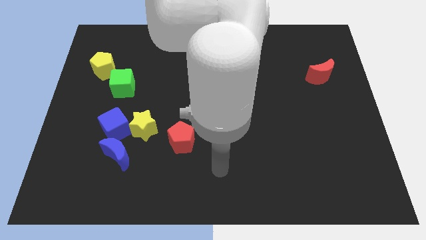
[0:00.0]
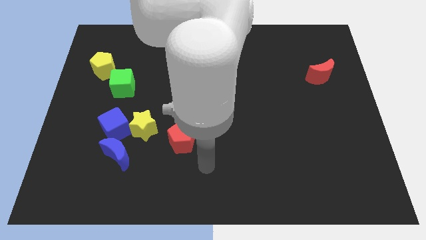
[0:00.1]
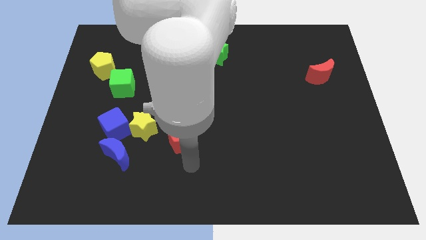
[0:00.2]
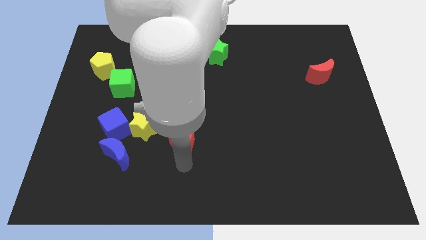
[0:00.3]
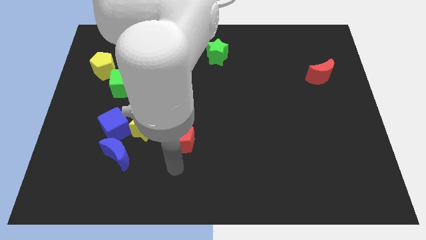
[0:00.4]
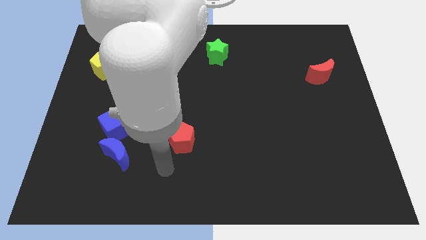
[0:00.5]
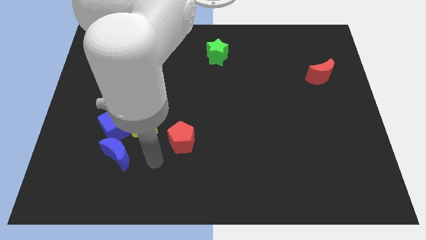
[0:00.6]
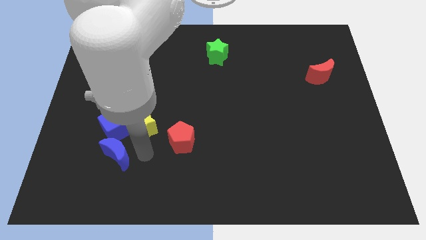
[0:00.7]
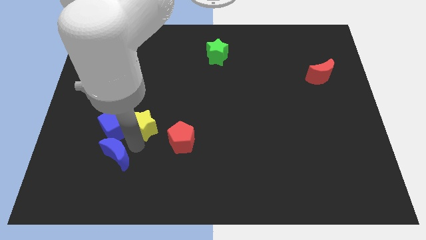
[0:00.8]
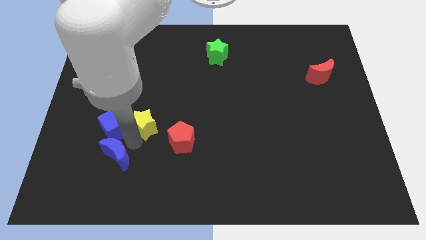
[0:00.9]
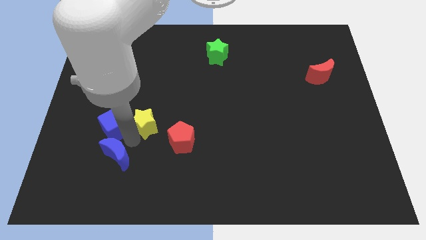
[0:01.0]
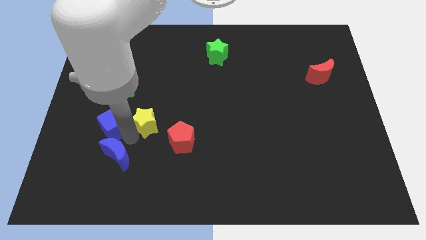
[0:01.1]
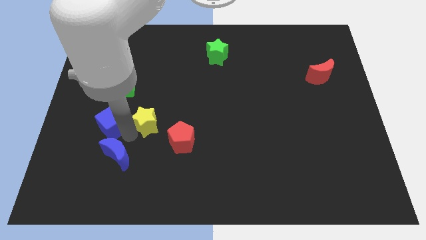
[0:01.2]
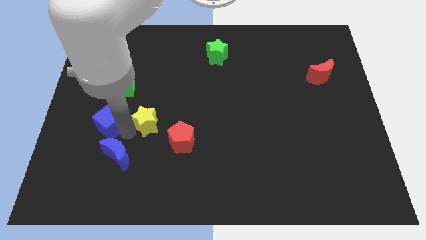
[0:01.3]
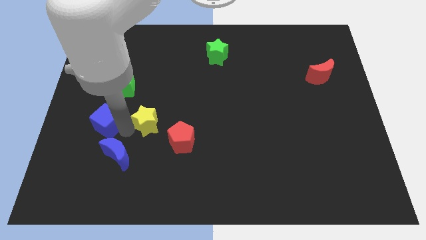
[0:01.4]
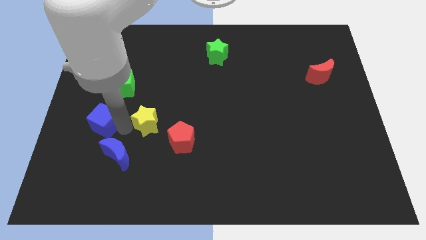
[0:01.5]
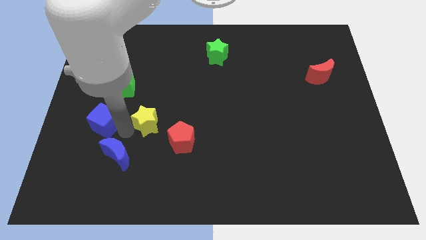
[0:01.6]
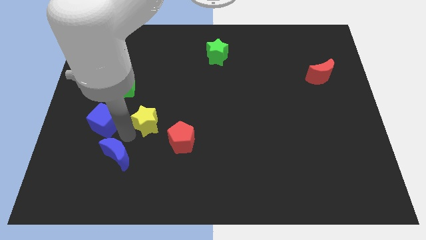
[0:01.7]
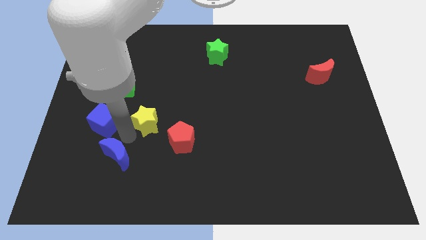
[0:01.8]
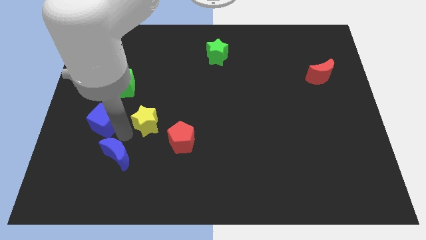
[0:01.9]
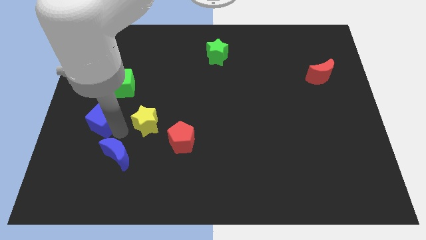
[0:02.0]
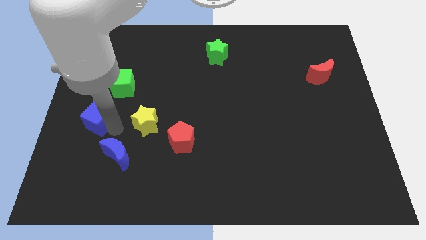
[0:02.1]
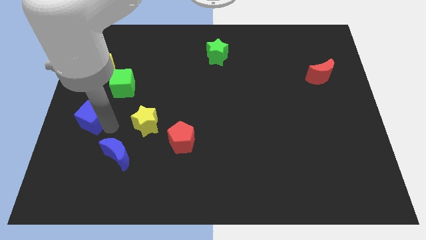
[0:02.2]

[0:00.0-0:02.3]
separate the blue cube from the yellow star and blue moon

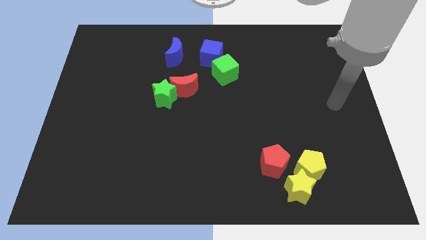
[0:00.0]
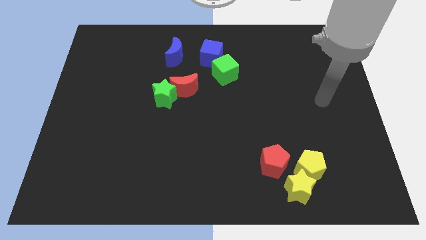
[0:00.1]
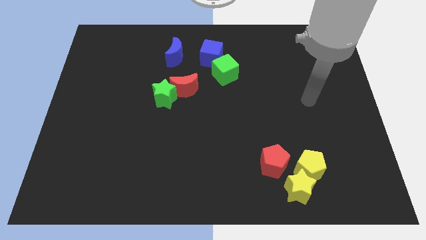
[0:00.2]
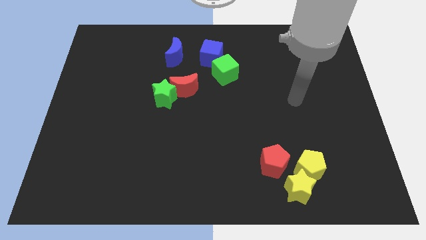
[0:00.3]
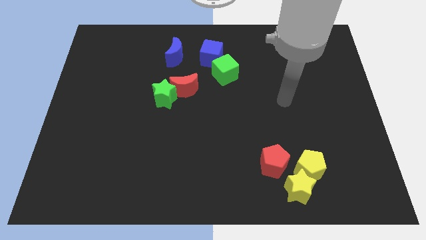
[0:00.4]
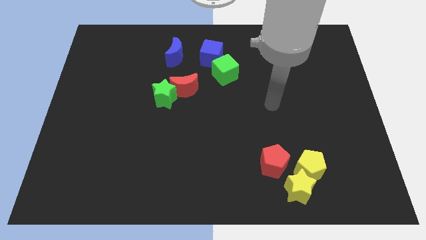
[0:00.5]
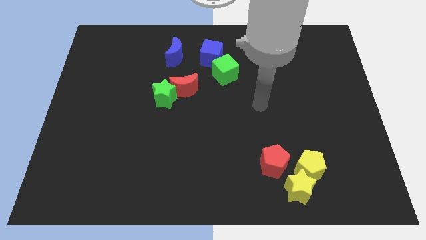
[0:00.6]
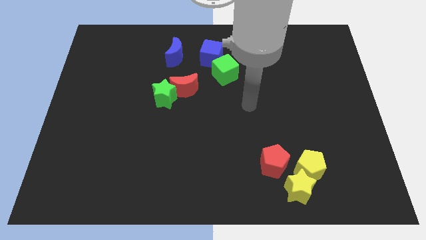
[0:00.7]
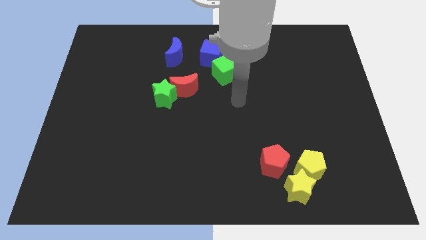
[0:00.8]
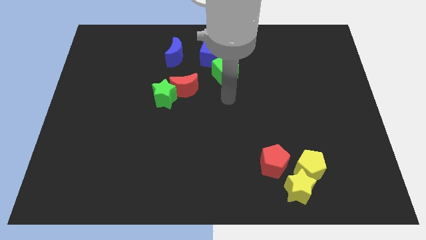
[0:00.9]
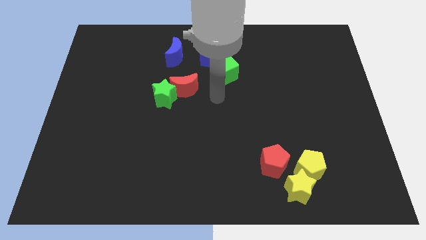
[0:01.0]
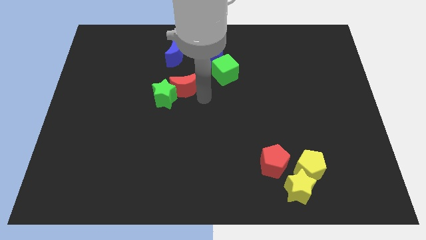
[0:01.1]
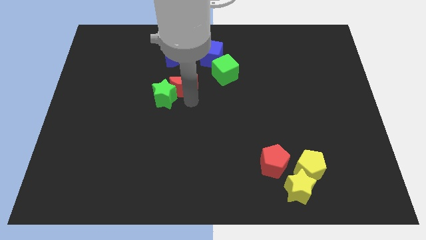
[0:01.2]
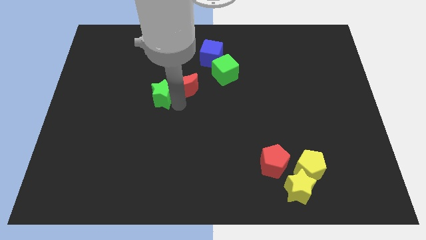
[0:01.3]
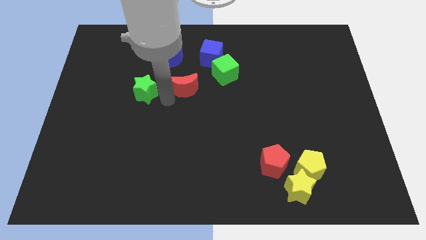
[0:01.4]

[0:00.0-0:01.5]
move the red moon away from the green star

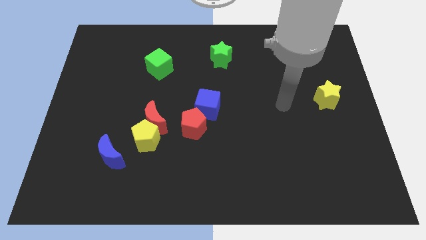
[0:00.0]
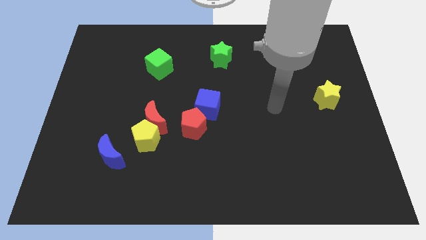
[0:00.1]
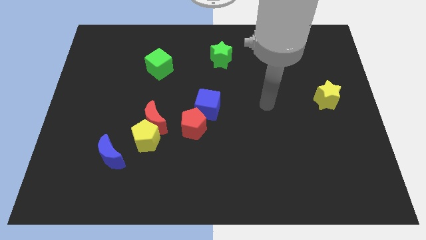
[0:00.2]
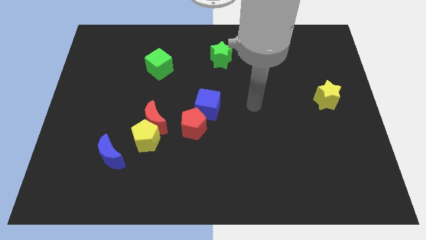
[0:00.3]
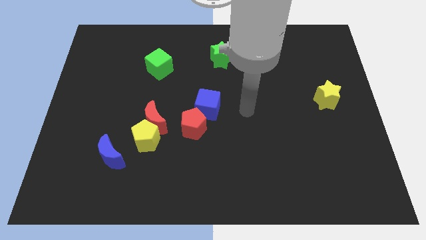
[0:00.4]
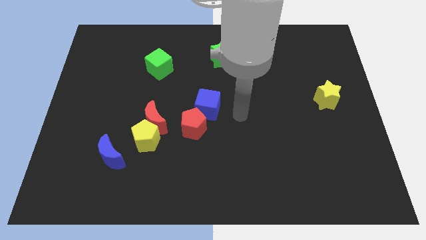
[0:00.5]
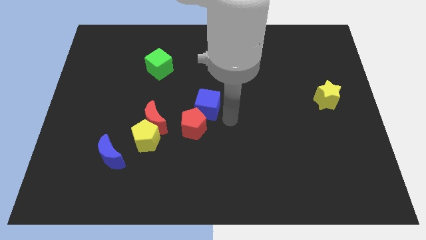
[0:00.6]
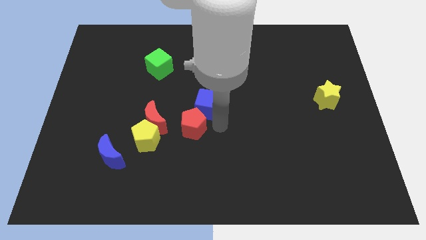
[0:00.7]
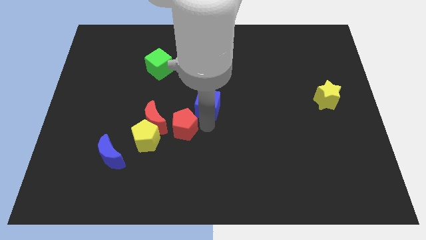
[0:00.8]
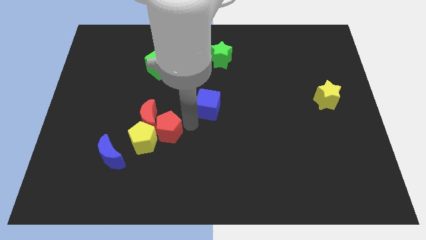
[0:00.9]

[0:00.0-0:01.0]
pull the blue cube apart from the red pentagon

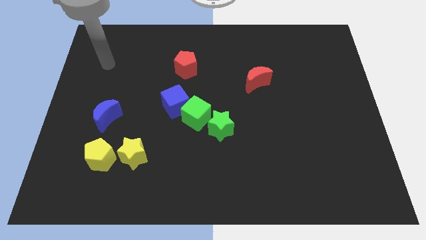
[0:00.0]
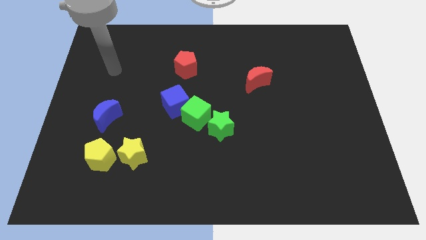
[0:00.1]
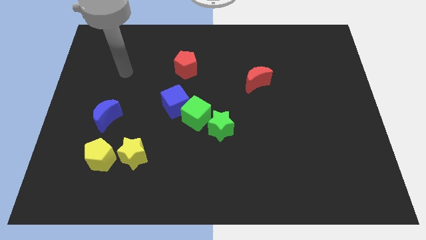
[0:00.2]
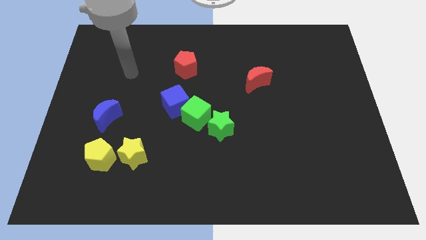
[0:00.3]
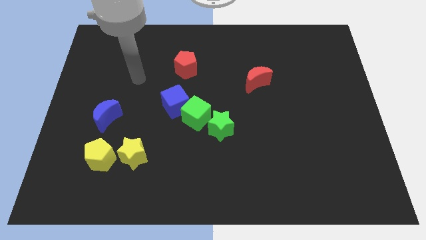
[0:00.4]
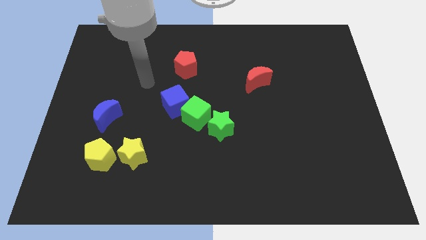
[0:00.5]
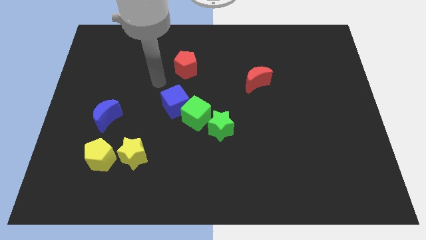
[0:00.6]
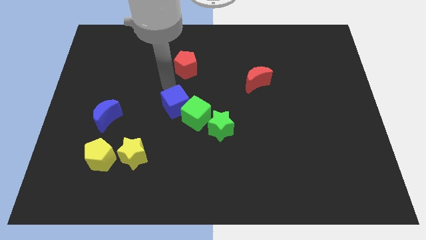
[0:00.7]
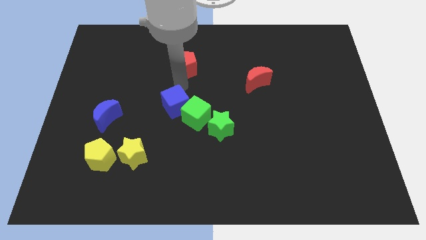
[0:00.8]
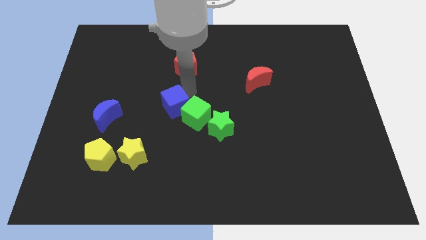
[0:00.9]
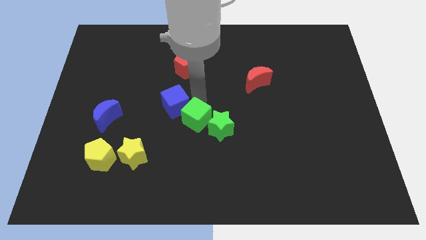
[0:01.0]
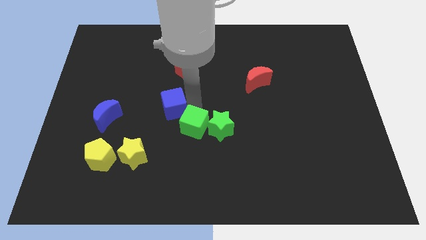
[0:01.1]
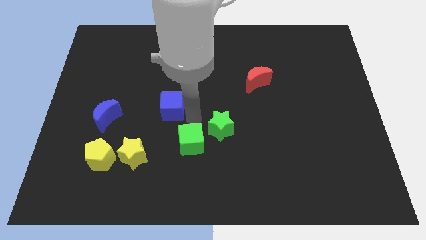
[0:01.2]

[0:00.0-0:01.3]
separate the blue cube from the green cube

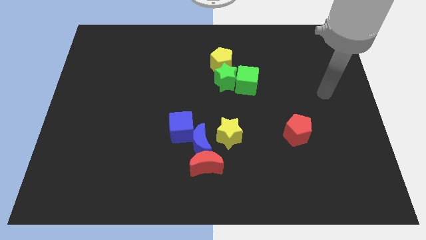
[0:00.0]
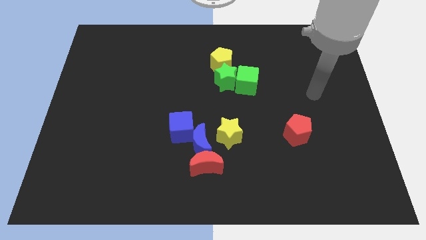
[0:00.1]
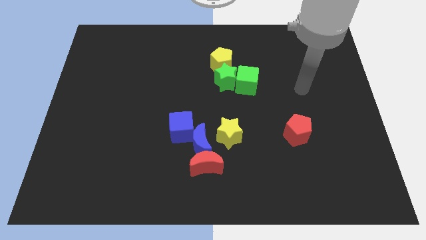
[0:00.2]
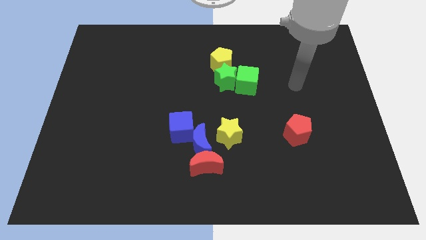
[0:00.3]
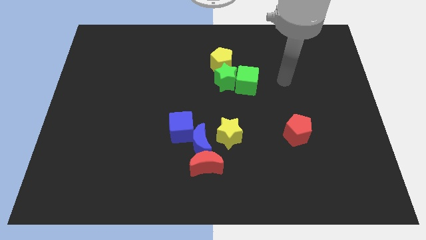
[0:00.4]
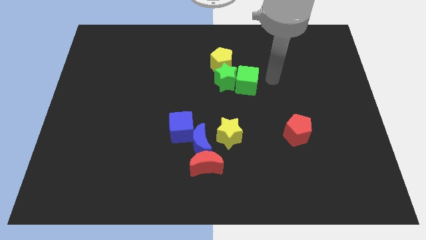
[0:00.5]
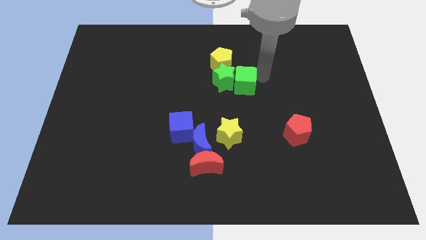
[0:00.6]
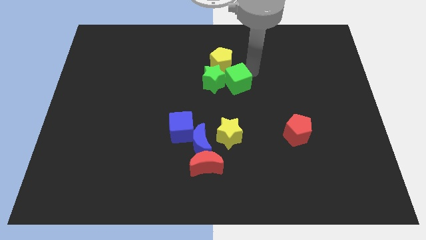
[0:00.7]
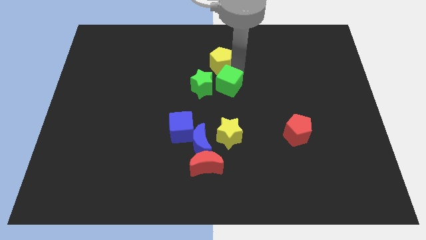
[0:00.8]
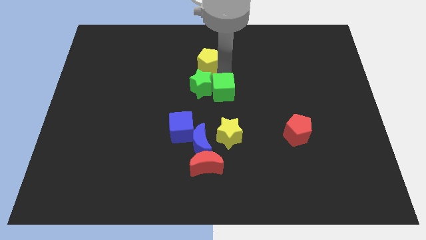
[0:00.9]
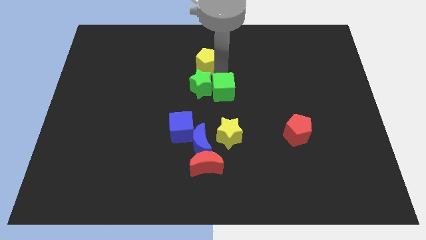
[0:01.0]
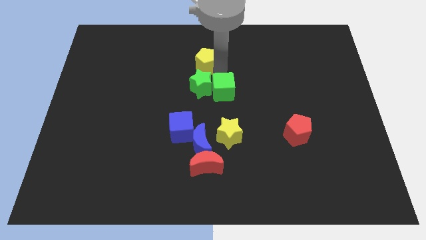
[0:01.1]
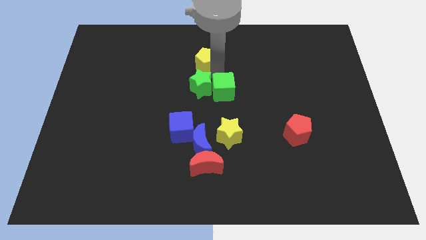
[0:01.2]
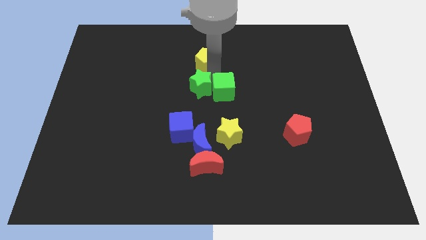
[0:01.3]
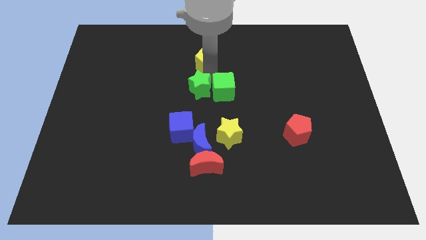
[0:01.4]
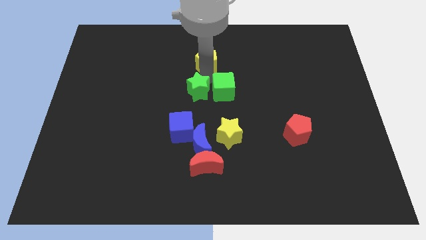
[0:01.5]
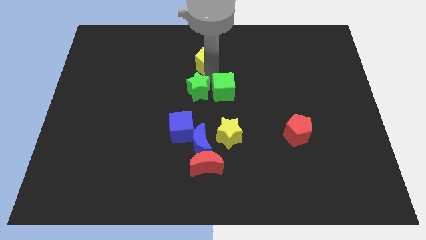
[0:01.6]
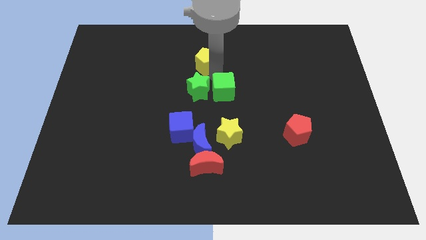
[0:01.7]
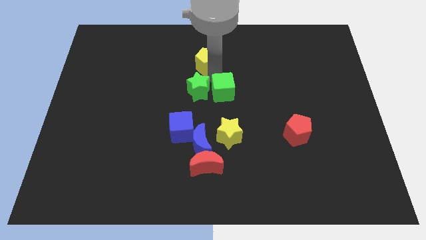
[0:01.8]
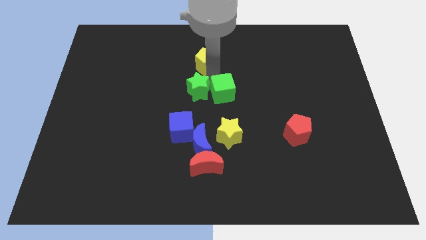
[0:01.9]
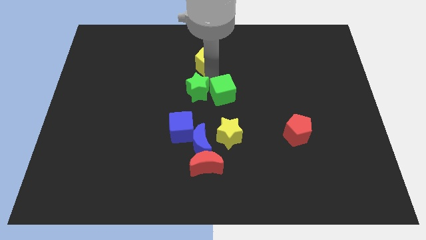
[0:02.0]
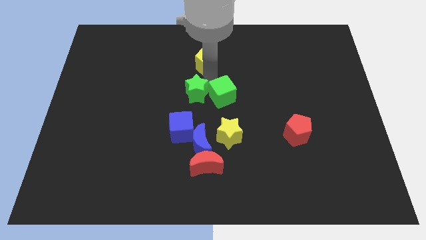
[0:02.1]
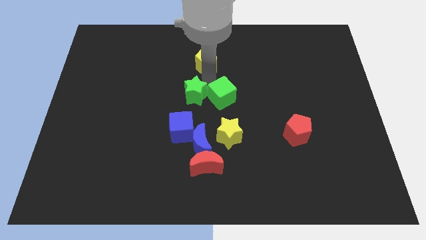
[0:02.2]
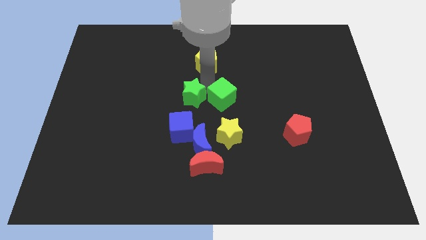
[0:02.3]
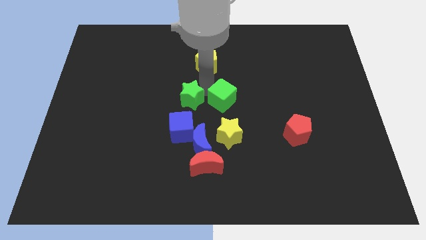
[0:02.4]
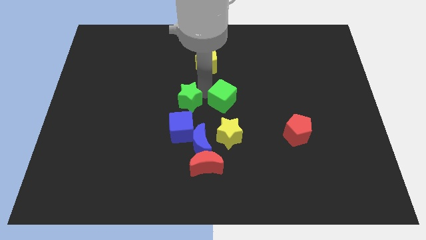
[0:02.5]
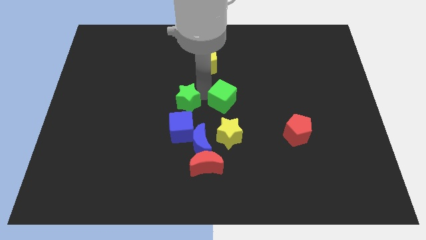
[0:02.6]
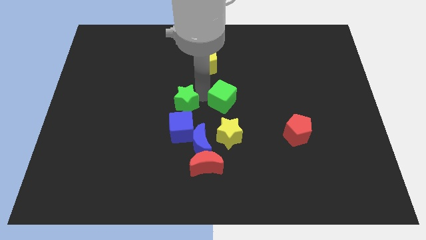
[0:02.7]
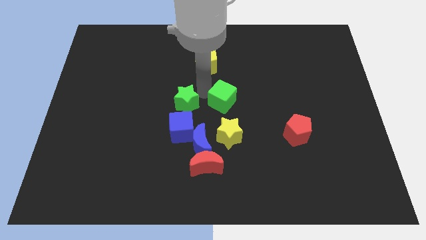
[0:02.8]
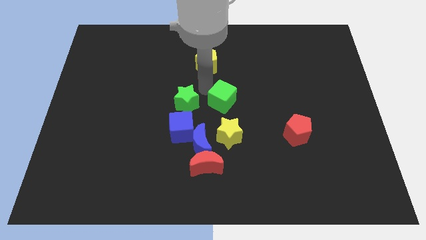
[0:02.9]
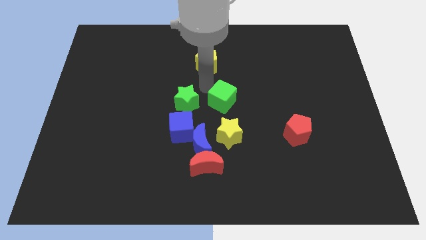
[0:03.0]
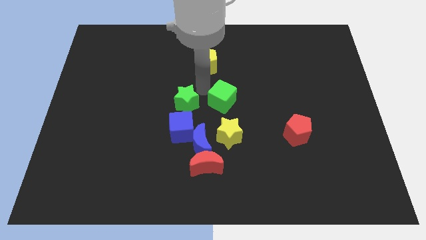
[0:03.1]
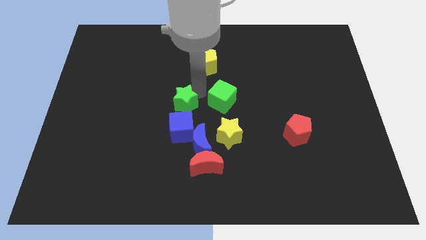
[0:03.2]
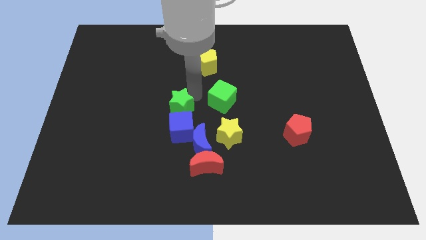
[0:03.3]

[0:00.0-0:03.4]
pull the green star apart from the green cube and yellow pentagon
